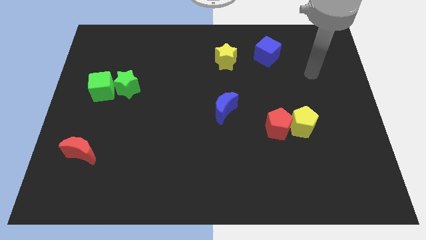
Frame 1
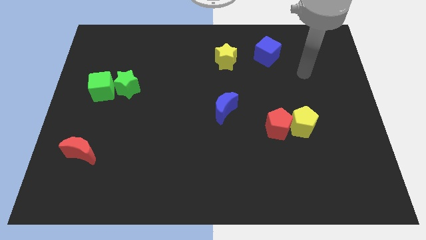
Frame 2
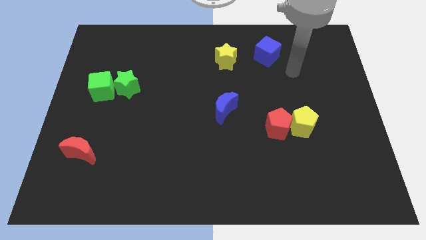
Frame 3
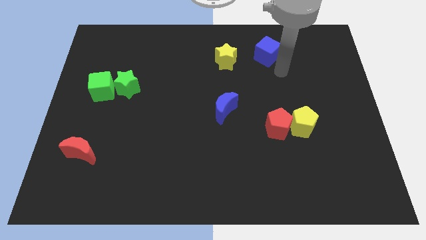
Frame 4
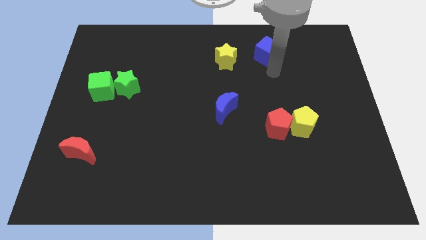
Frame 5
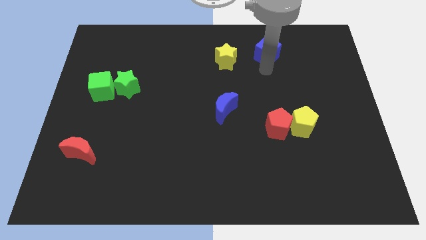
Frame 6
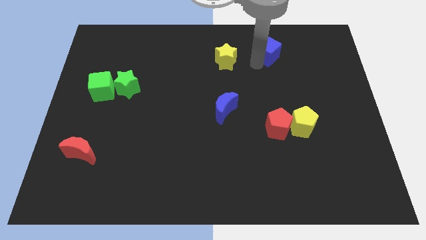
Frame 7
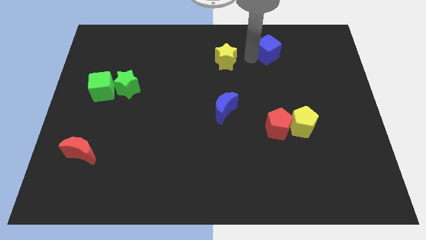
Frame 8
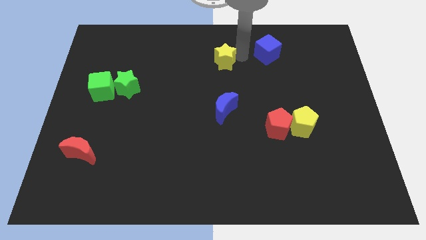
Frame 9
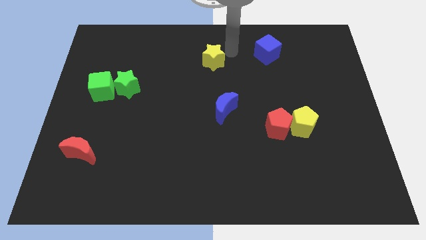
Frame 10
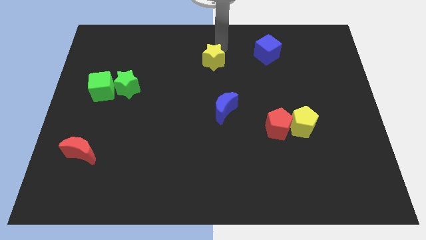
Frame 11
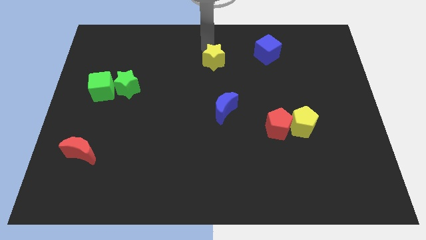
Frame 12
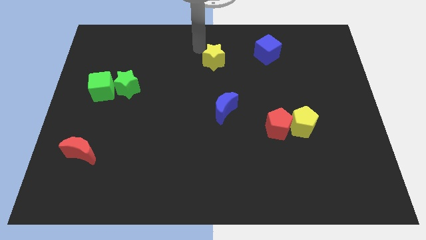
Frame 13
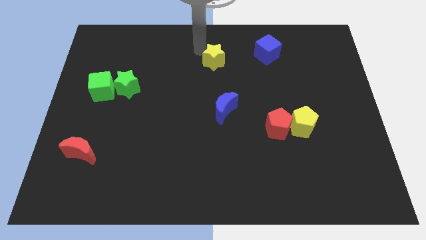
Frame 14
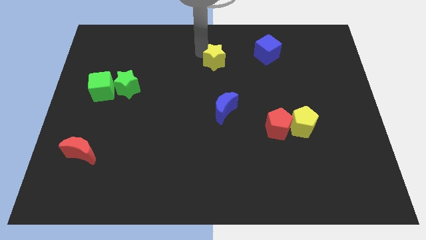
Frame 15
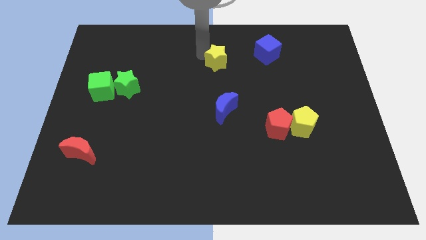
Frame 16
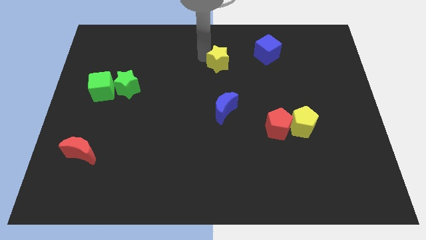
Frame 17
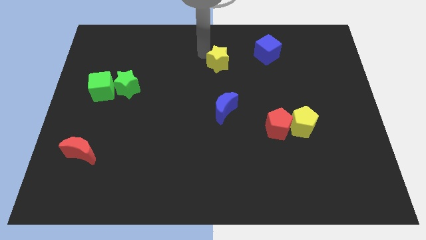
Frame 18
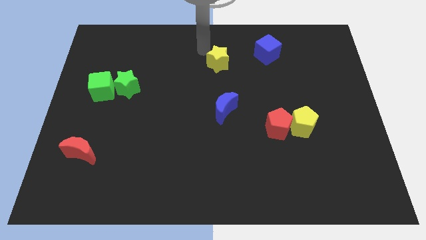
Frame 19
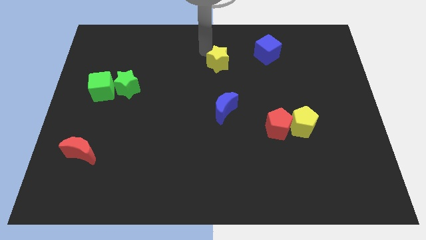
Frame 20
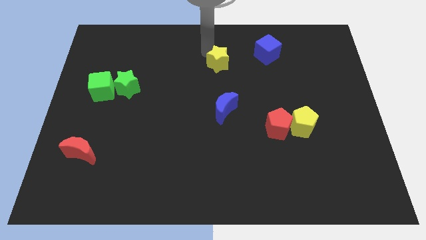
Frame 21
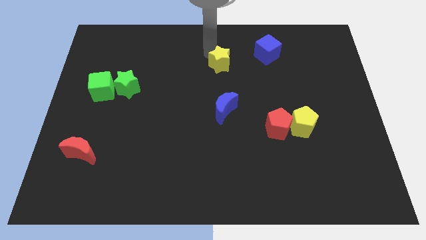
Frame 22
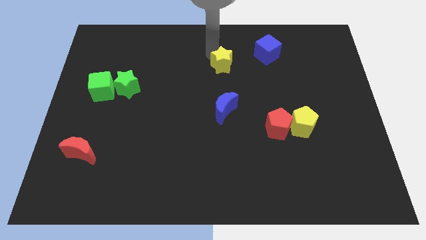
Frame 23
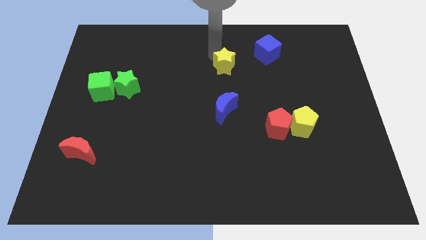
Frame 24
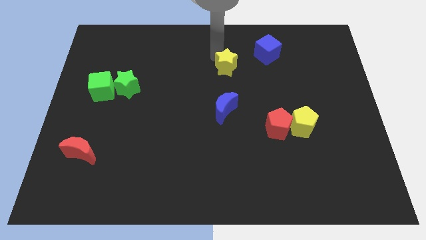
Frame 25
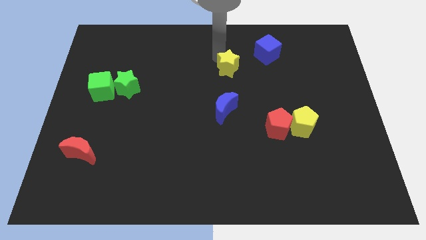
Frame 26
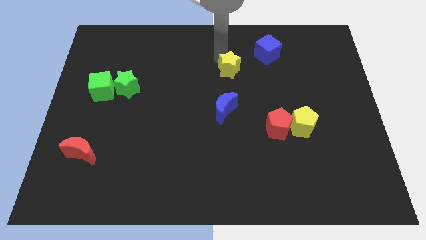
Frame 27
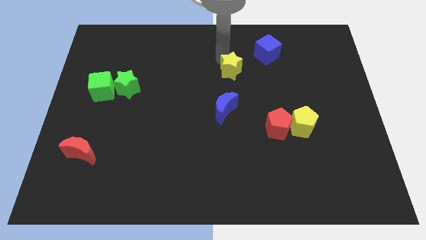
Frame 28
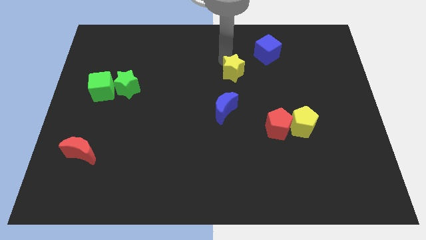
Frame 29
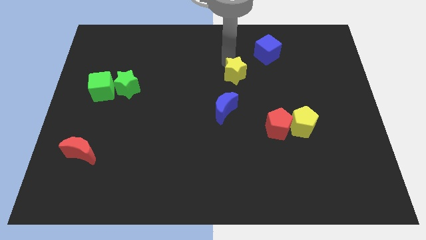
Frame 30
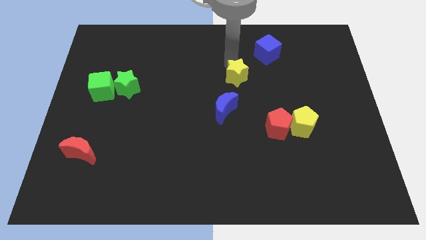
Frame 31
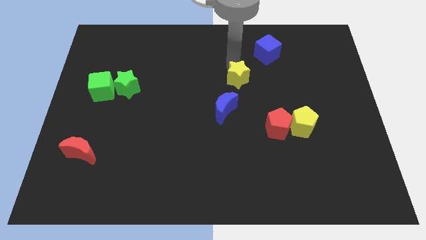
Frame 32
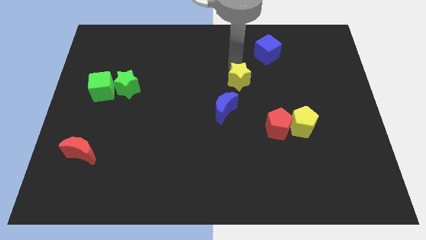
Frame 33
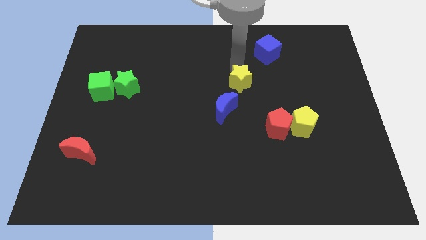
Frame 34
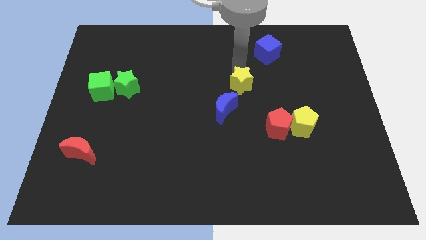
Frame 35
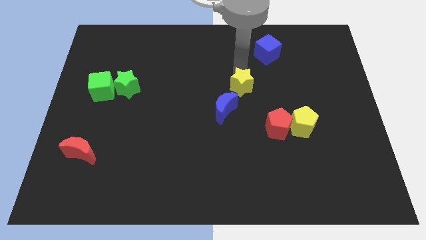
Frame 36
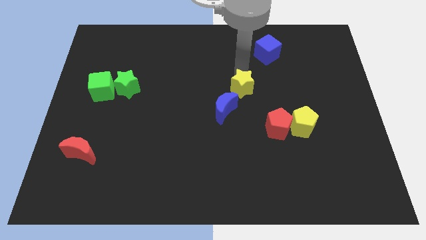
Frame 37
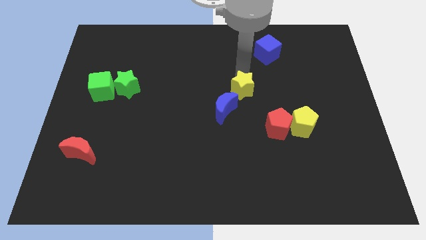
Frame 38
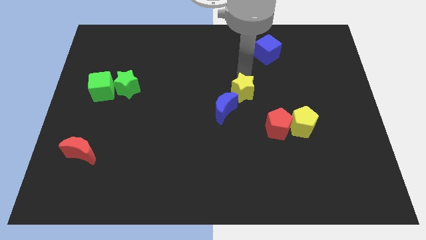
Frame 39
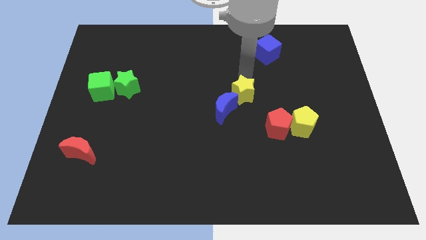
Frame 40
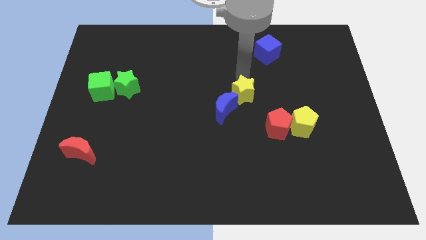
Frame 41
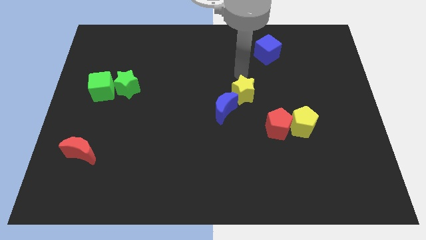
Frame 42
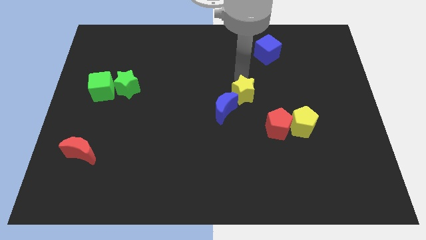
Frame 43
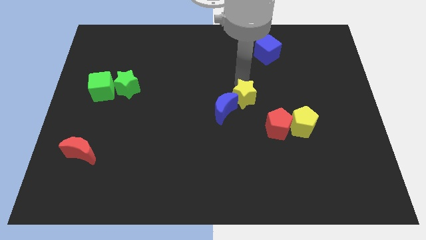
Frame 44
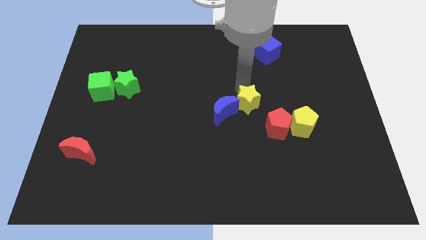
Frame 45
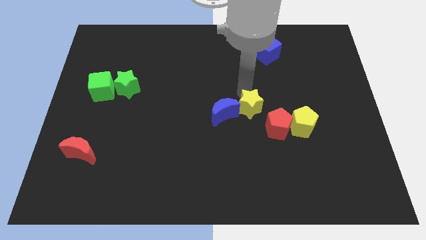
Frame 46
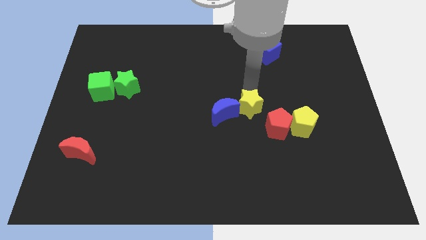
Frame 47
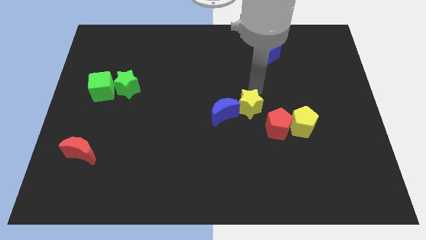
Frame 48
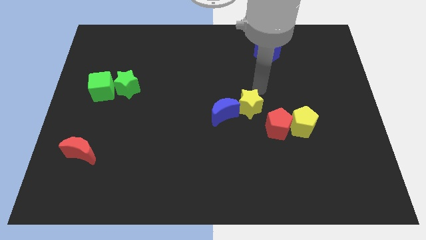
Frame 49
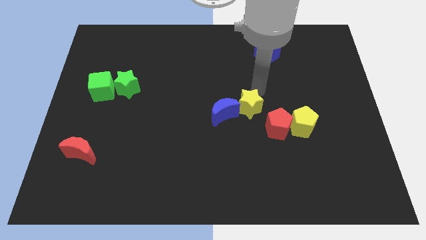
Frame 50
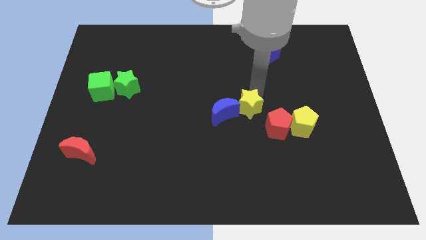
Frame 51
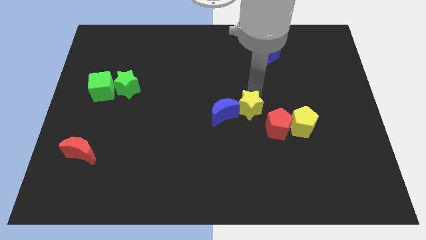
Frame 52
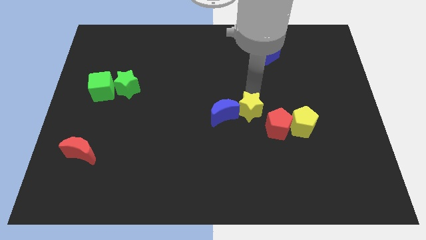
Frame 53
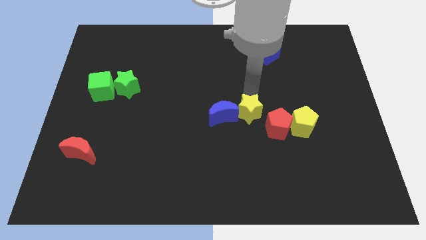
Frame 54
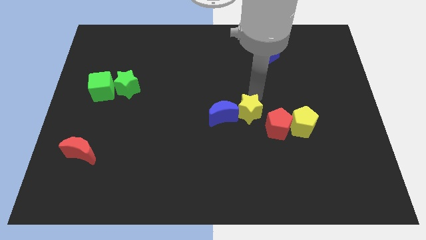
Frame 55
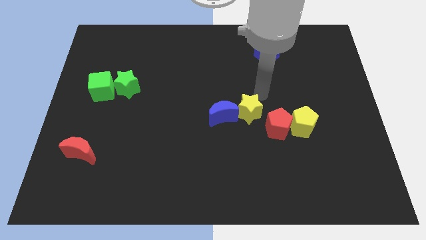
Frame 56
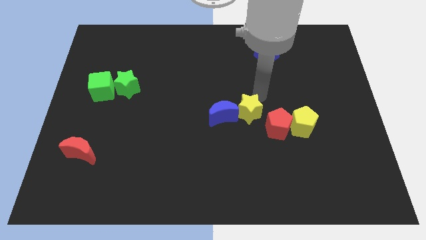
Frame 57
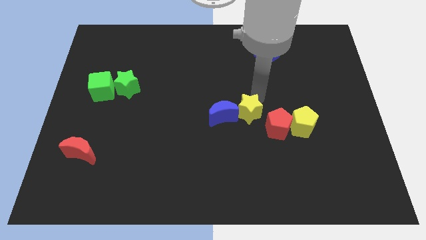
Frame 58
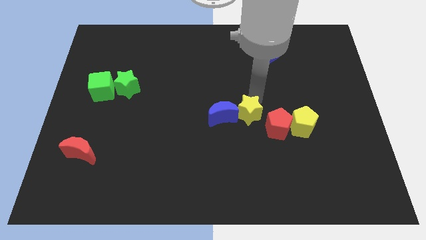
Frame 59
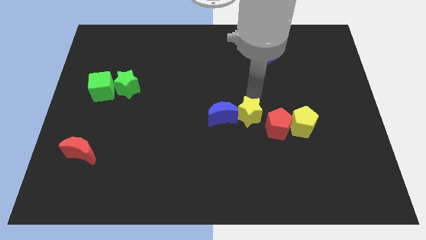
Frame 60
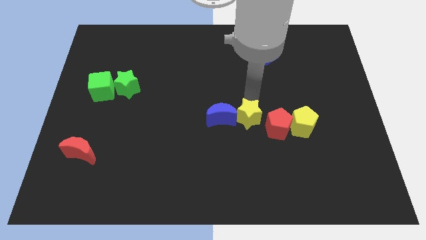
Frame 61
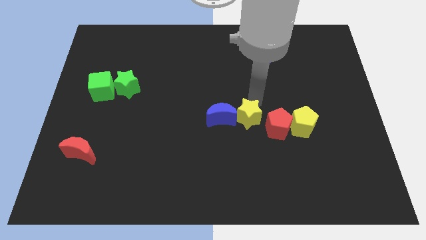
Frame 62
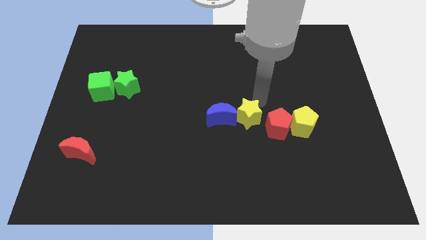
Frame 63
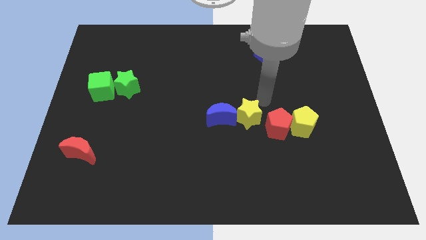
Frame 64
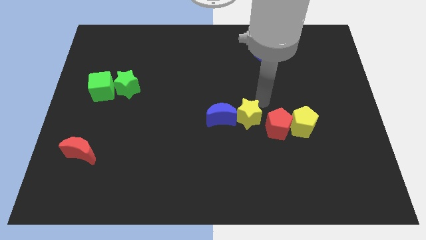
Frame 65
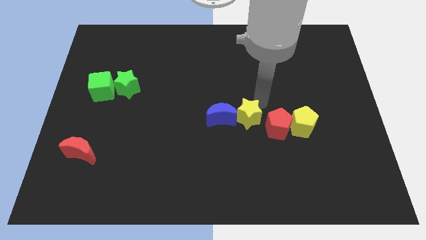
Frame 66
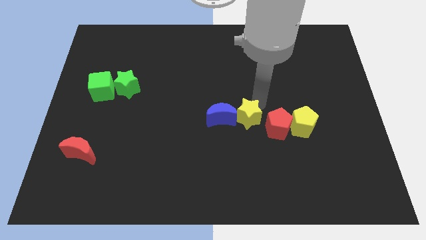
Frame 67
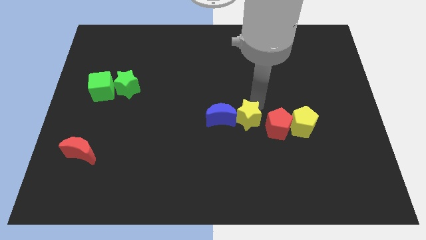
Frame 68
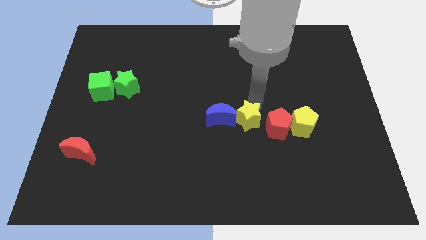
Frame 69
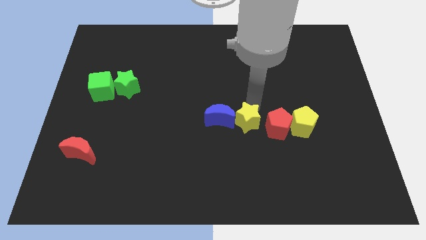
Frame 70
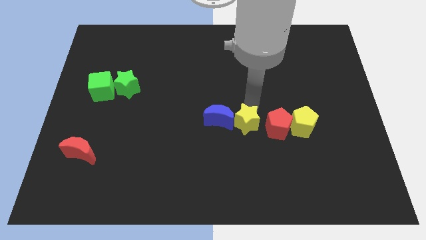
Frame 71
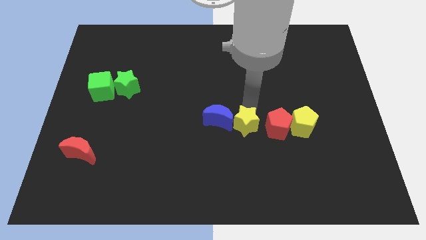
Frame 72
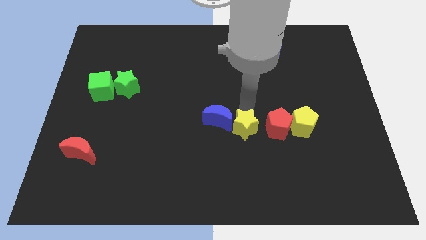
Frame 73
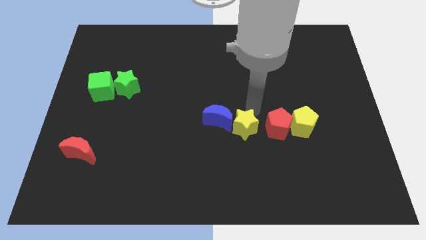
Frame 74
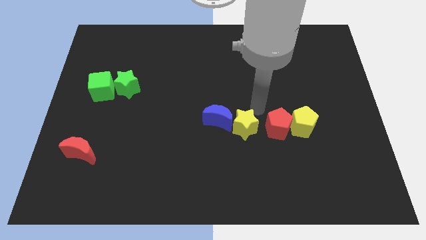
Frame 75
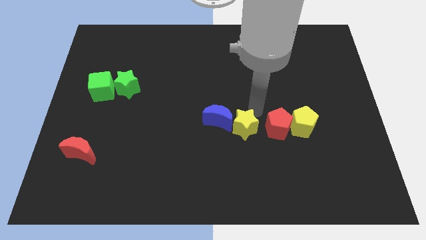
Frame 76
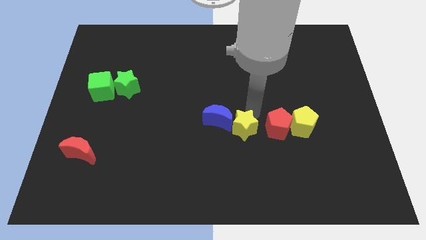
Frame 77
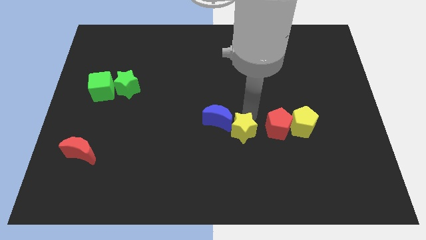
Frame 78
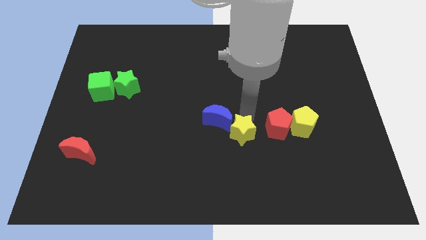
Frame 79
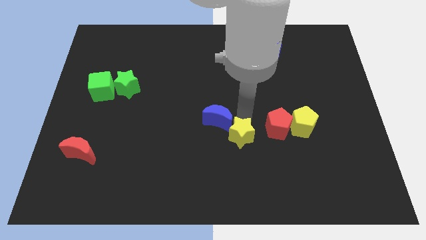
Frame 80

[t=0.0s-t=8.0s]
put the yellow star below the blue moon

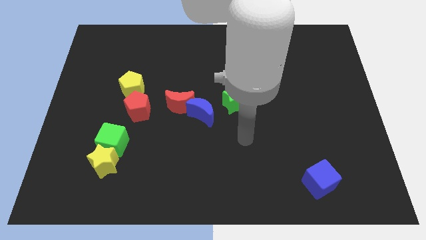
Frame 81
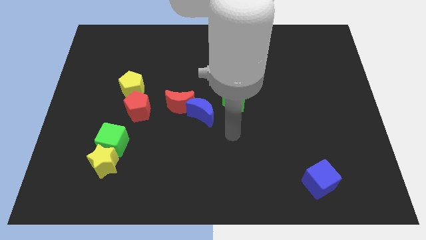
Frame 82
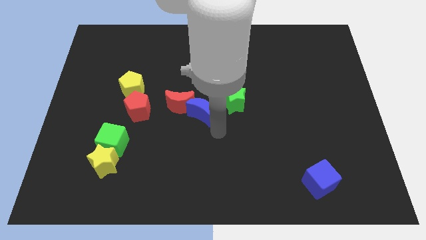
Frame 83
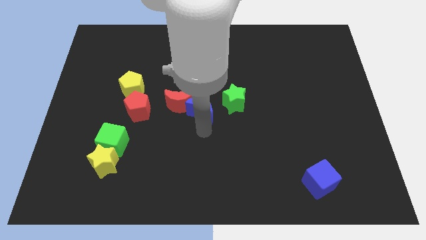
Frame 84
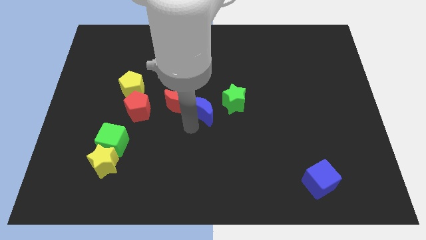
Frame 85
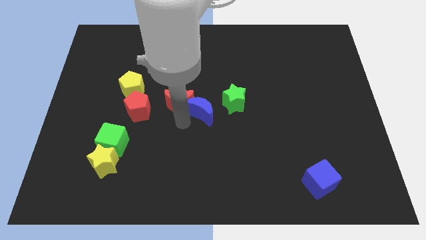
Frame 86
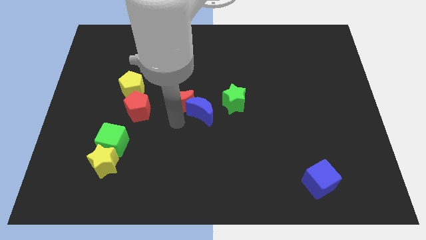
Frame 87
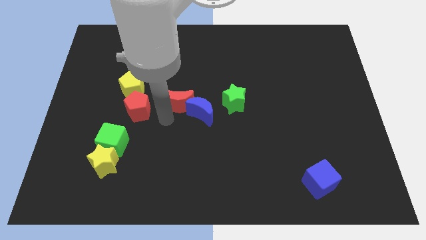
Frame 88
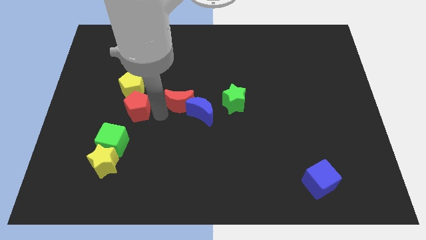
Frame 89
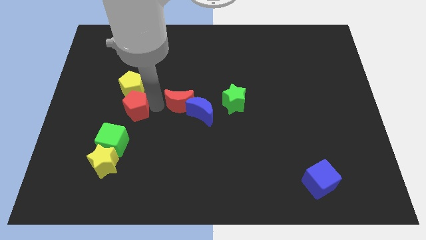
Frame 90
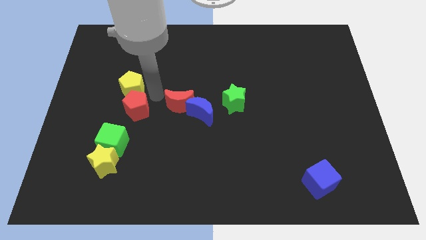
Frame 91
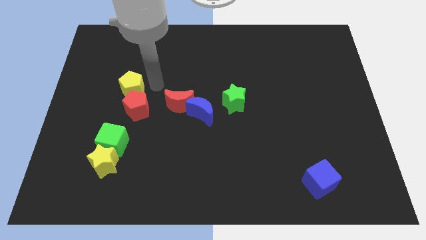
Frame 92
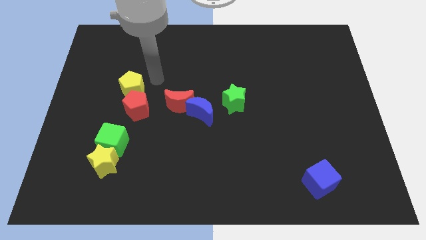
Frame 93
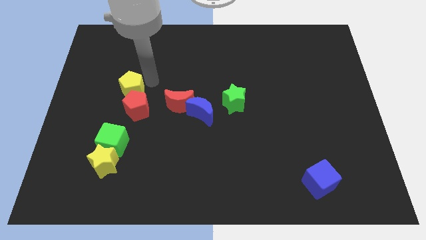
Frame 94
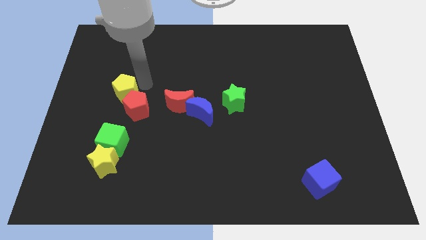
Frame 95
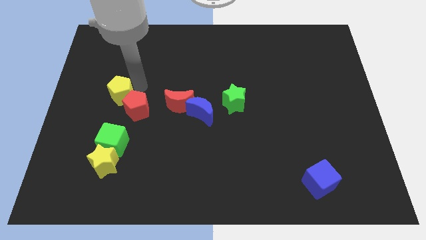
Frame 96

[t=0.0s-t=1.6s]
slide the yellow pentagon to the left of the red pentagon
